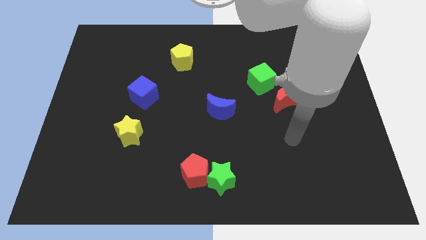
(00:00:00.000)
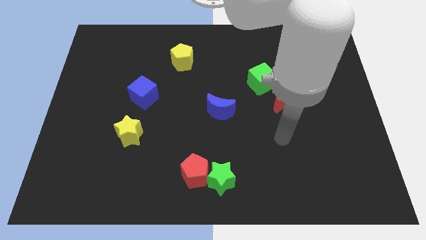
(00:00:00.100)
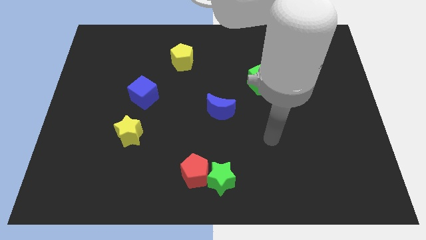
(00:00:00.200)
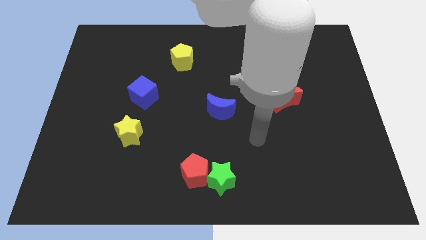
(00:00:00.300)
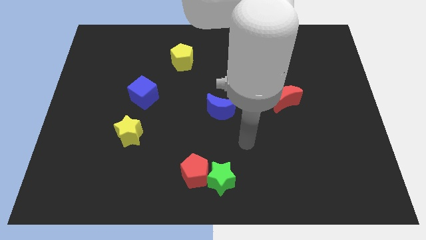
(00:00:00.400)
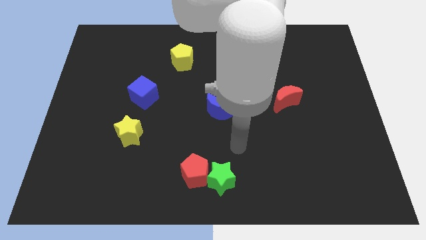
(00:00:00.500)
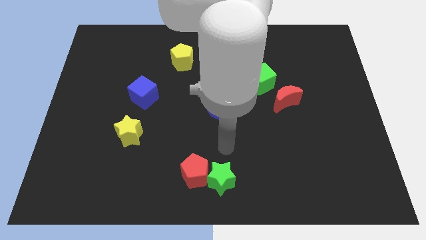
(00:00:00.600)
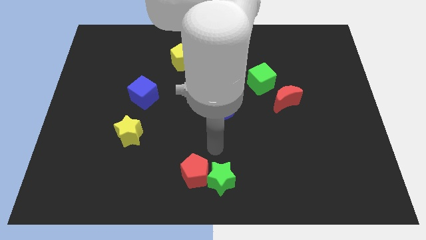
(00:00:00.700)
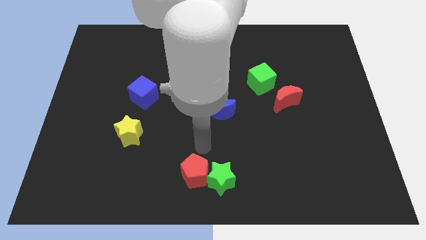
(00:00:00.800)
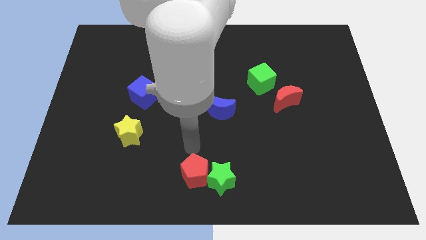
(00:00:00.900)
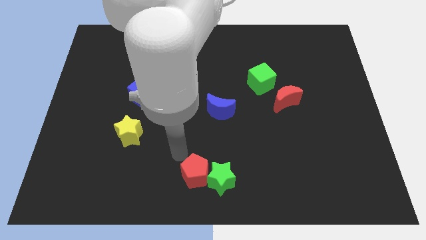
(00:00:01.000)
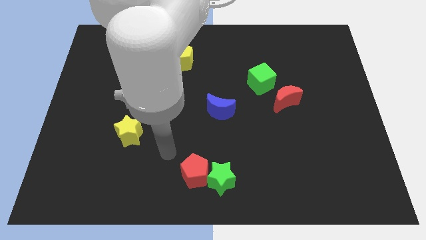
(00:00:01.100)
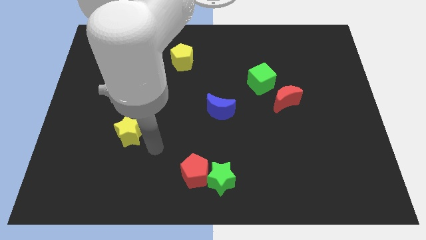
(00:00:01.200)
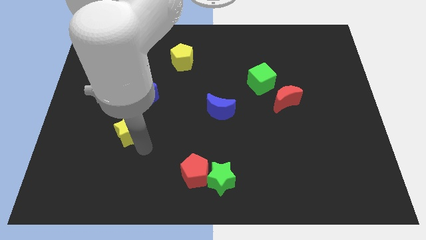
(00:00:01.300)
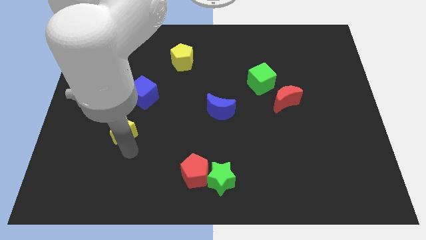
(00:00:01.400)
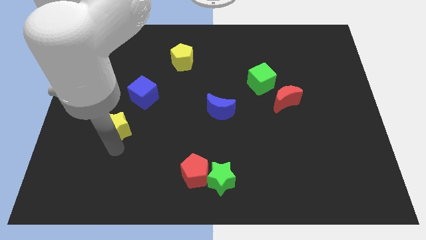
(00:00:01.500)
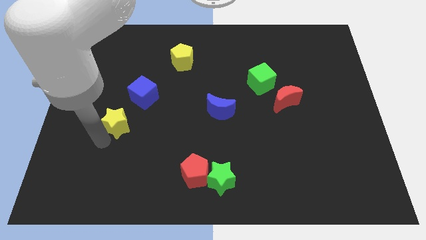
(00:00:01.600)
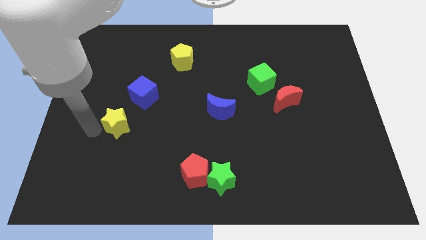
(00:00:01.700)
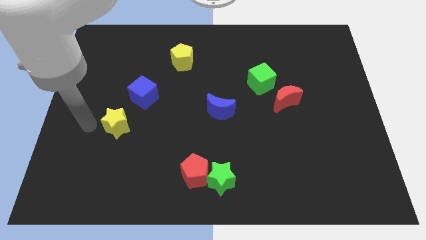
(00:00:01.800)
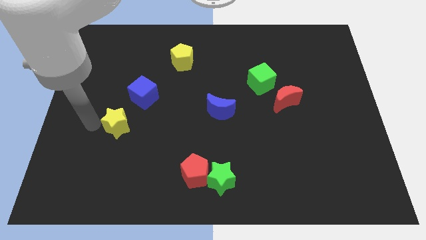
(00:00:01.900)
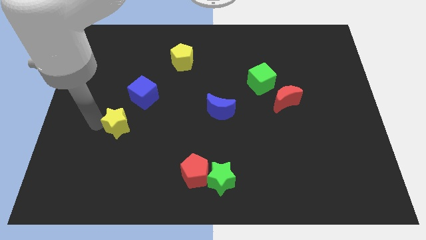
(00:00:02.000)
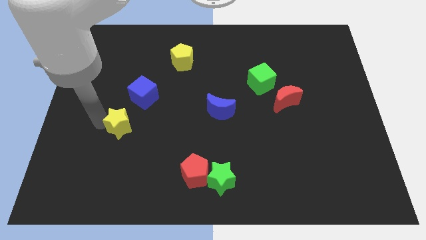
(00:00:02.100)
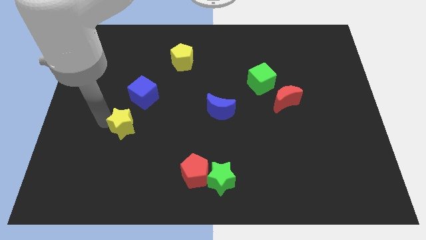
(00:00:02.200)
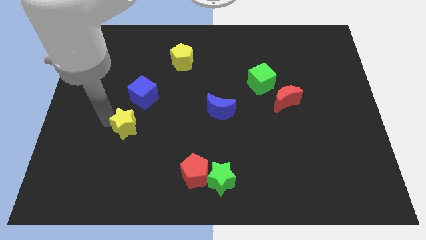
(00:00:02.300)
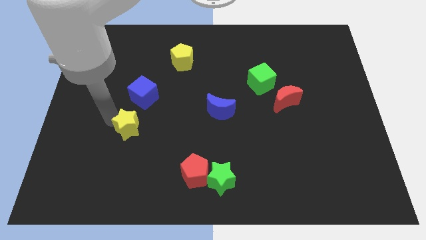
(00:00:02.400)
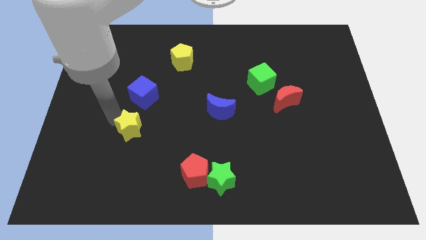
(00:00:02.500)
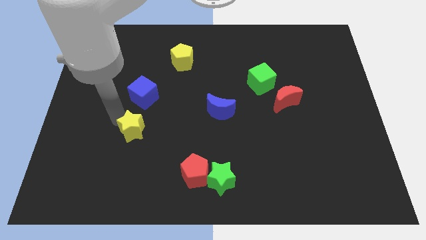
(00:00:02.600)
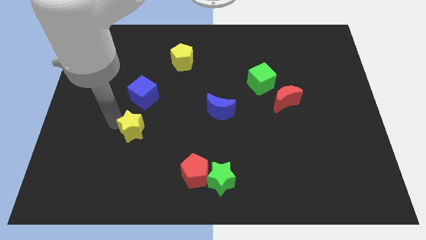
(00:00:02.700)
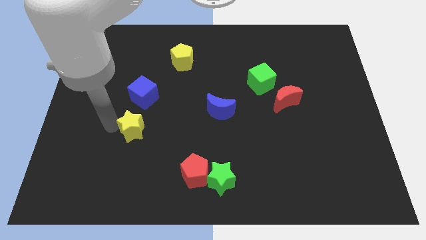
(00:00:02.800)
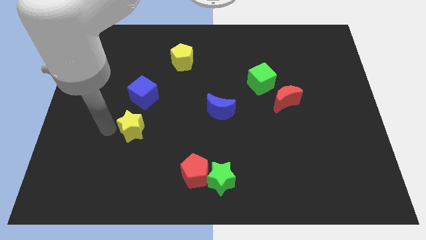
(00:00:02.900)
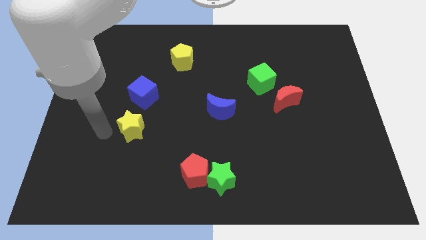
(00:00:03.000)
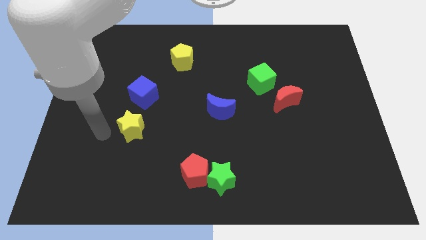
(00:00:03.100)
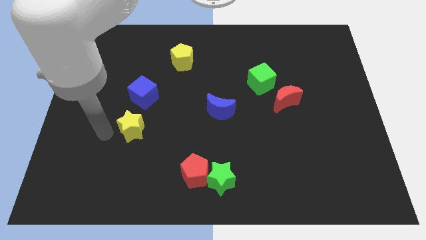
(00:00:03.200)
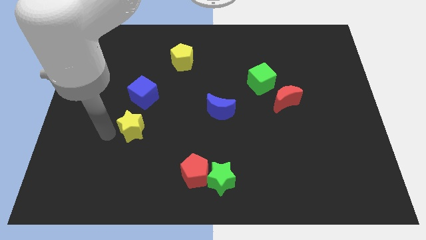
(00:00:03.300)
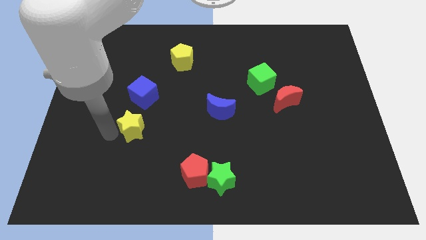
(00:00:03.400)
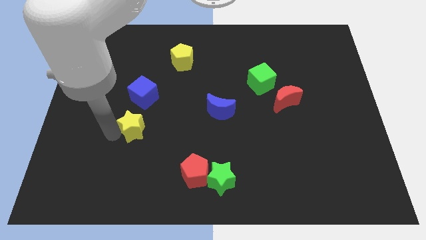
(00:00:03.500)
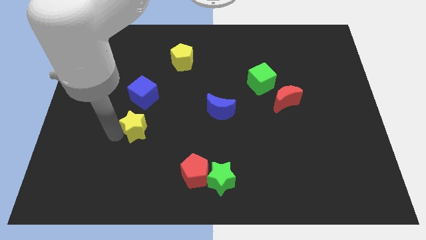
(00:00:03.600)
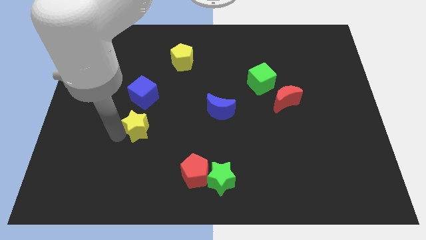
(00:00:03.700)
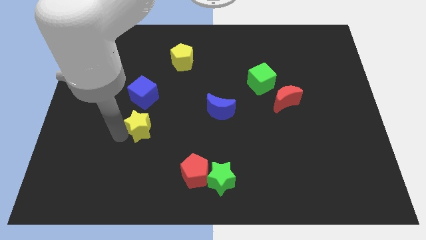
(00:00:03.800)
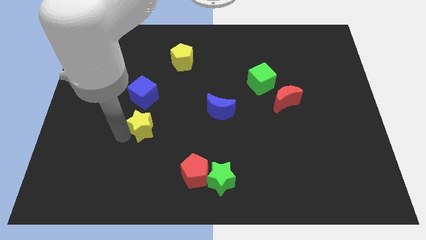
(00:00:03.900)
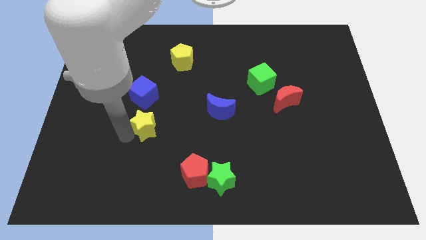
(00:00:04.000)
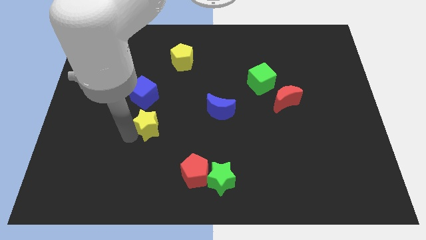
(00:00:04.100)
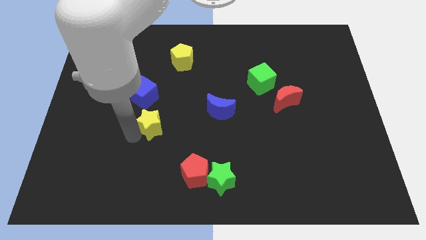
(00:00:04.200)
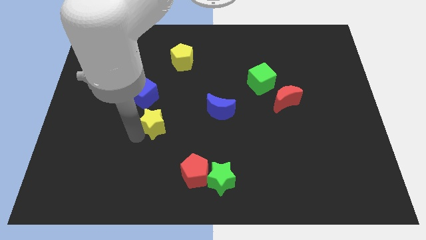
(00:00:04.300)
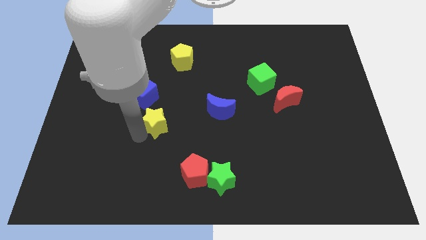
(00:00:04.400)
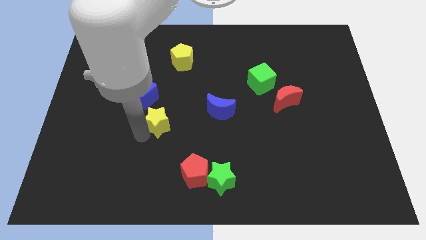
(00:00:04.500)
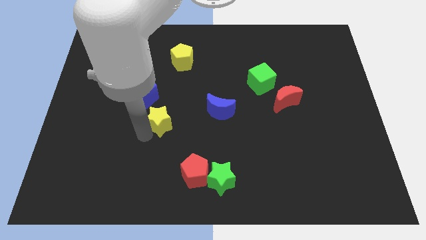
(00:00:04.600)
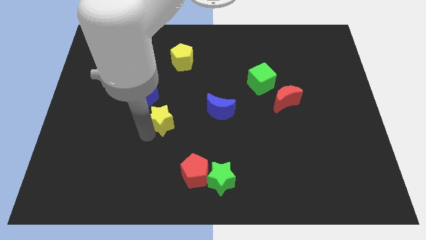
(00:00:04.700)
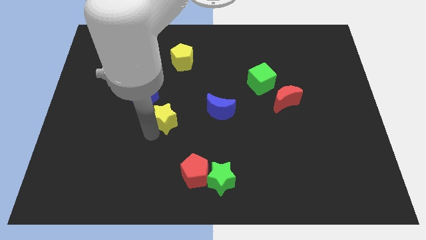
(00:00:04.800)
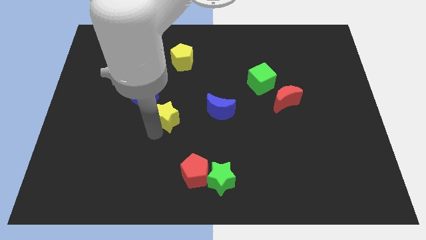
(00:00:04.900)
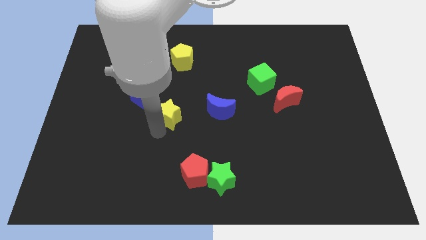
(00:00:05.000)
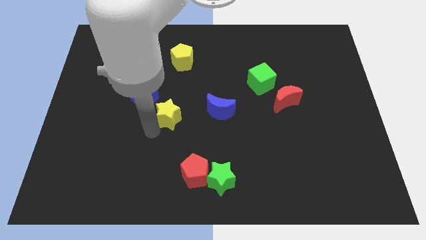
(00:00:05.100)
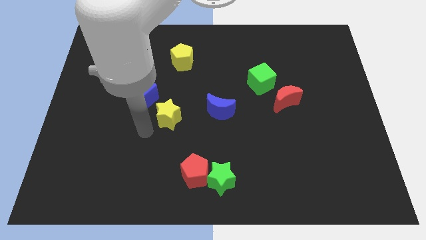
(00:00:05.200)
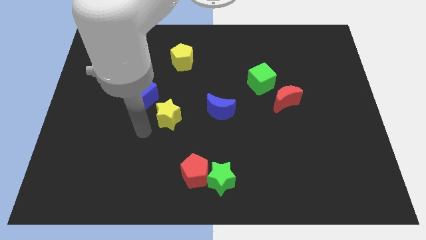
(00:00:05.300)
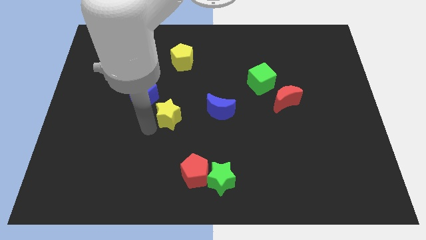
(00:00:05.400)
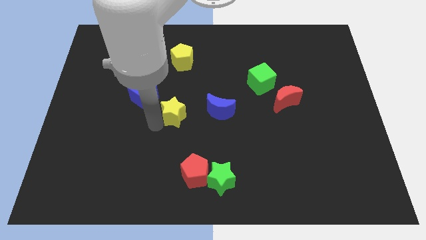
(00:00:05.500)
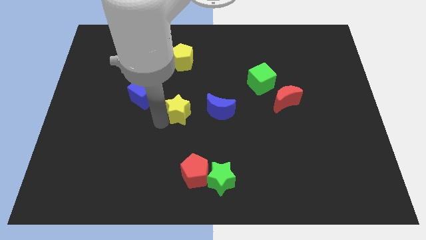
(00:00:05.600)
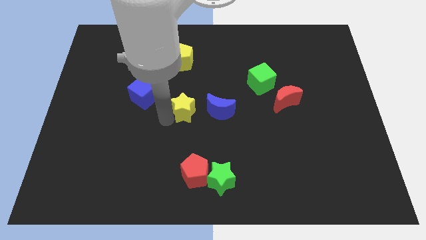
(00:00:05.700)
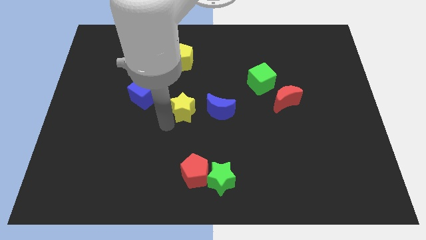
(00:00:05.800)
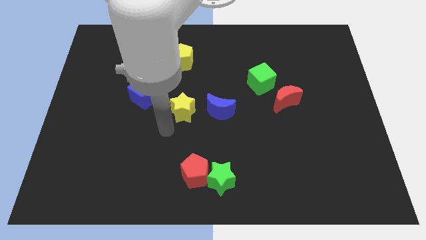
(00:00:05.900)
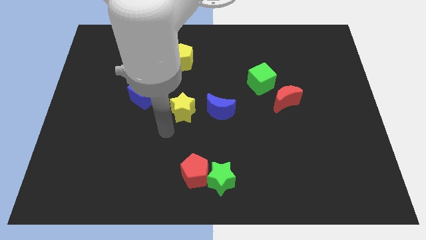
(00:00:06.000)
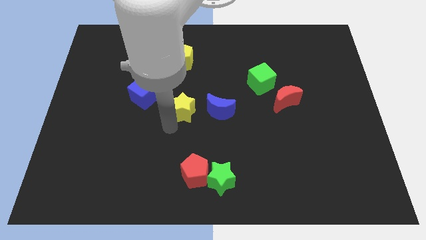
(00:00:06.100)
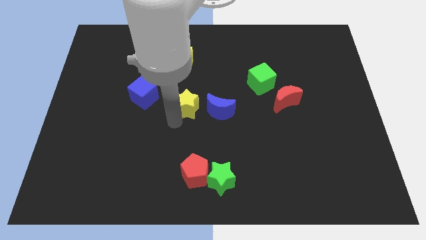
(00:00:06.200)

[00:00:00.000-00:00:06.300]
push the yellow star to the top left side of the blue moon

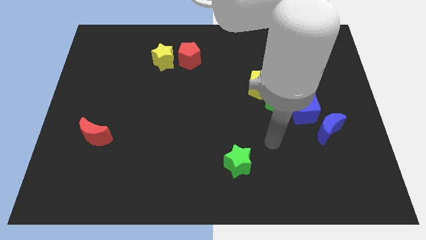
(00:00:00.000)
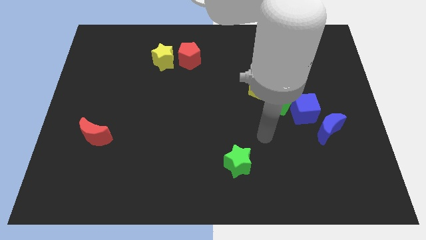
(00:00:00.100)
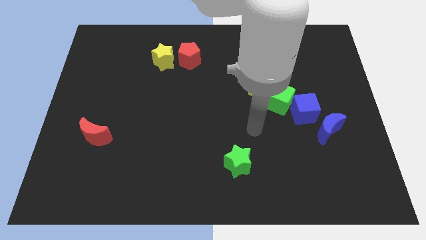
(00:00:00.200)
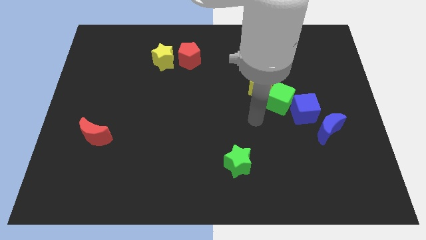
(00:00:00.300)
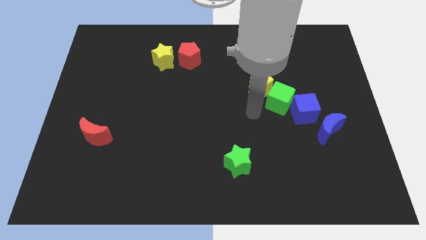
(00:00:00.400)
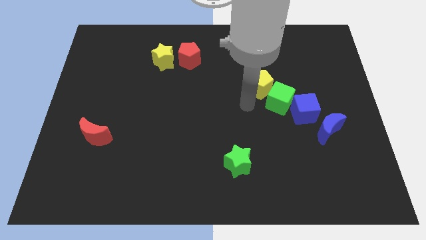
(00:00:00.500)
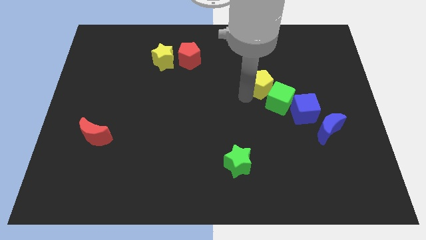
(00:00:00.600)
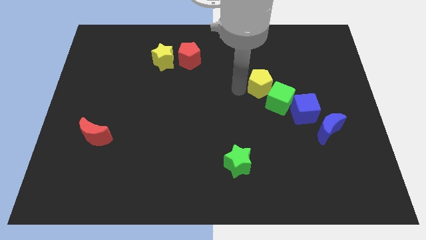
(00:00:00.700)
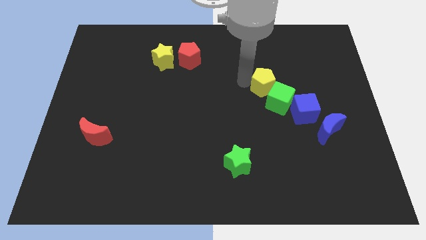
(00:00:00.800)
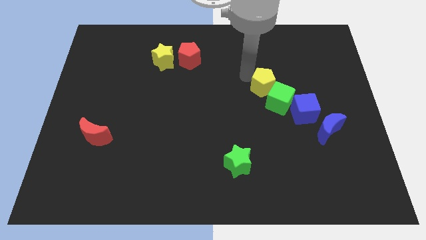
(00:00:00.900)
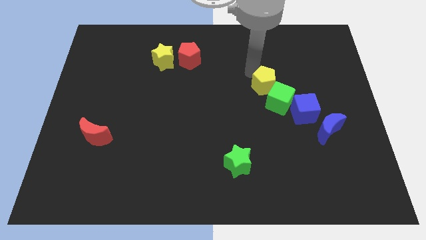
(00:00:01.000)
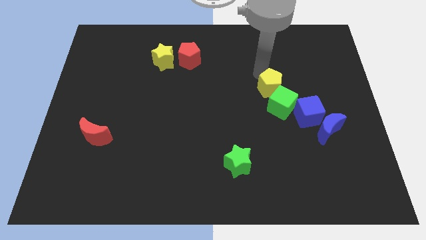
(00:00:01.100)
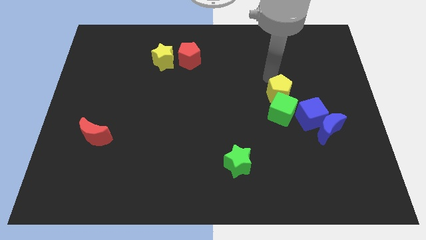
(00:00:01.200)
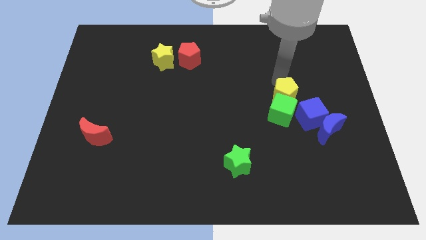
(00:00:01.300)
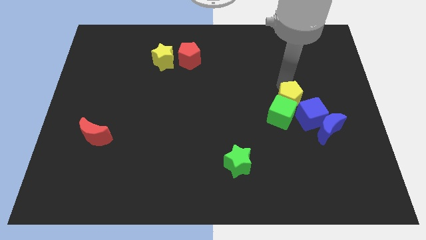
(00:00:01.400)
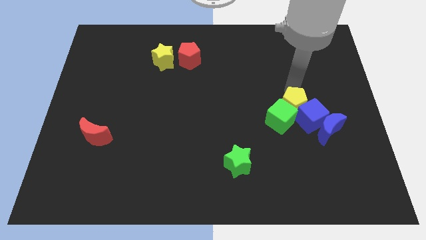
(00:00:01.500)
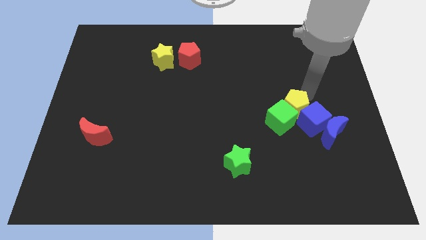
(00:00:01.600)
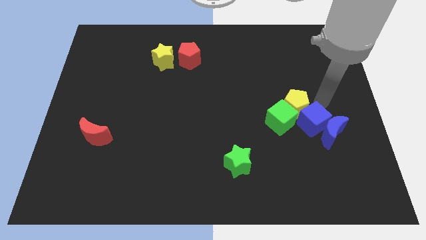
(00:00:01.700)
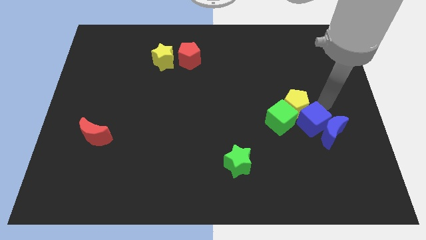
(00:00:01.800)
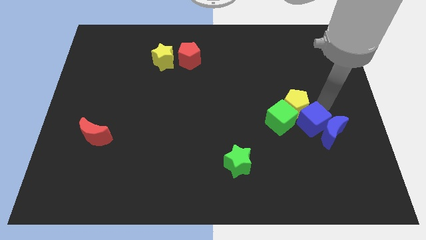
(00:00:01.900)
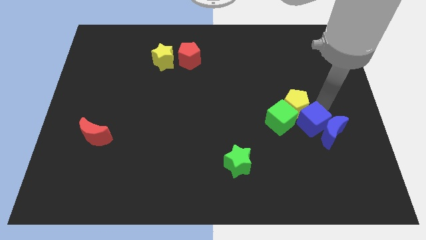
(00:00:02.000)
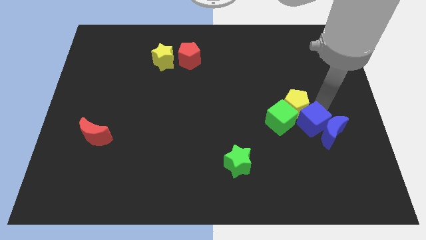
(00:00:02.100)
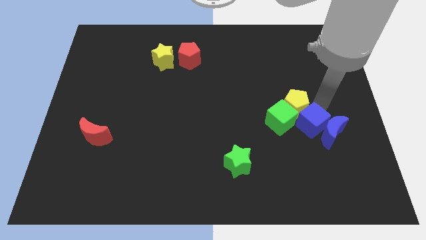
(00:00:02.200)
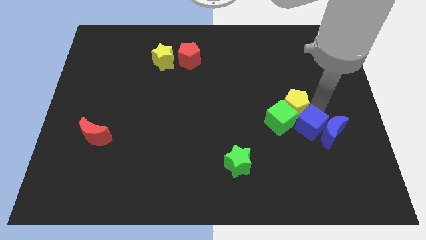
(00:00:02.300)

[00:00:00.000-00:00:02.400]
put the blue cube to the bottom left of the blue moon
